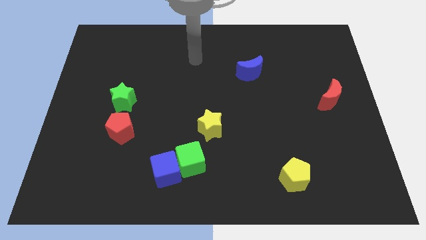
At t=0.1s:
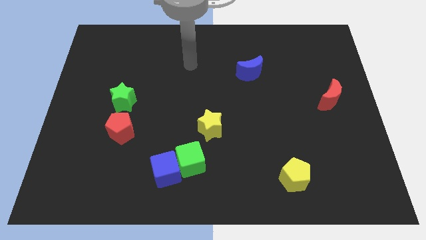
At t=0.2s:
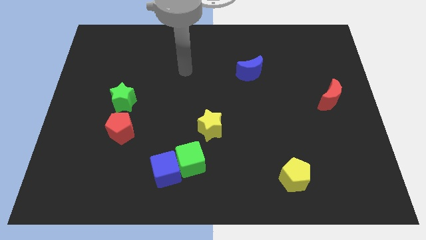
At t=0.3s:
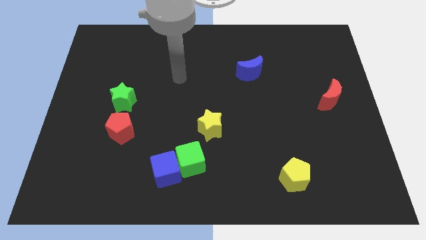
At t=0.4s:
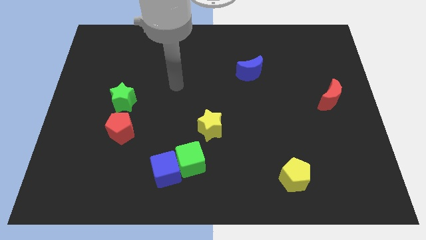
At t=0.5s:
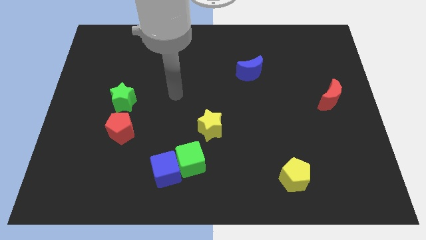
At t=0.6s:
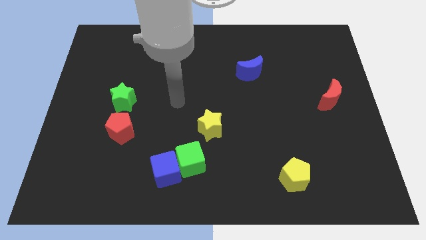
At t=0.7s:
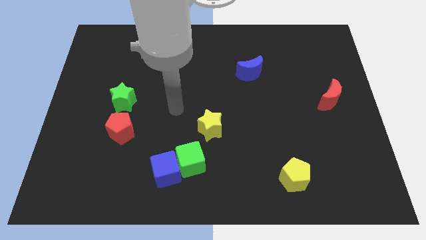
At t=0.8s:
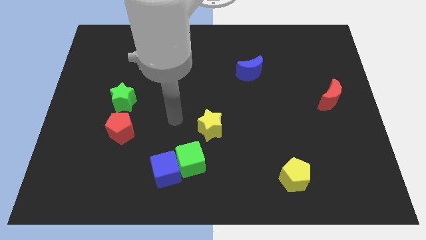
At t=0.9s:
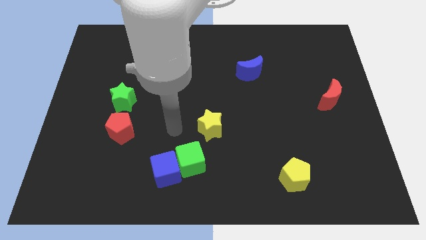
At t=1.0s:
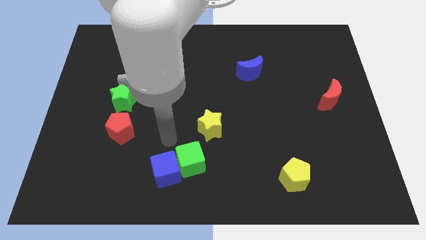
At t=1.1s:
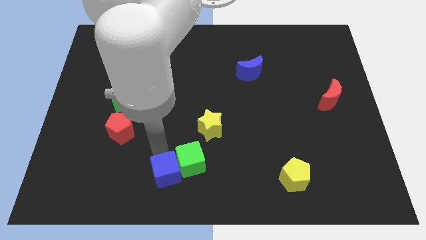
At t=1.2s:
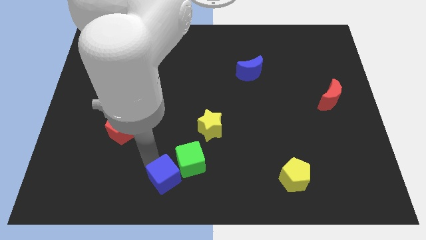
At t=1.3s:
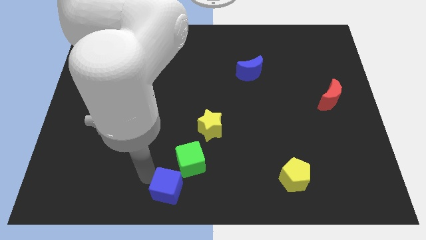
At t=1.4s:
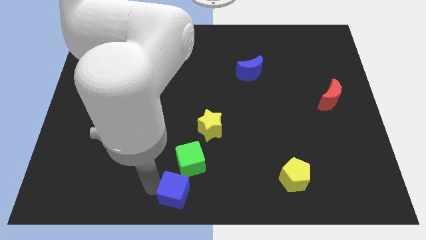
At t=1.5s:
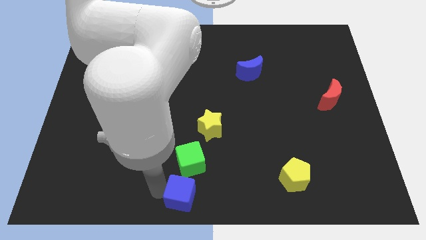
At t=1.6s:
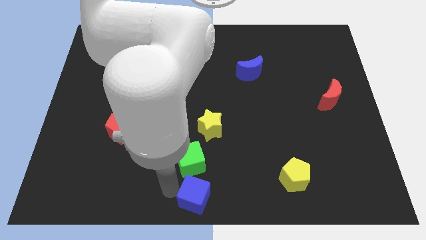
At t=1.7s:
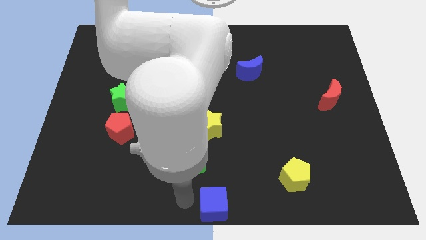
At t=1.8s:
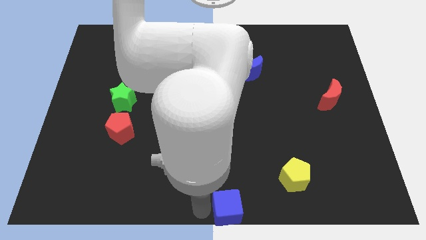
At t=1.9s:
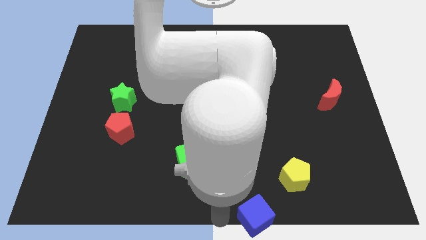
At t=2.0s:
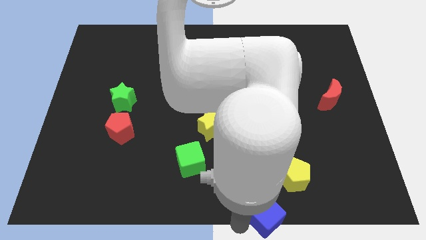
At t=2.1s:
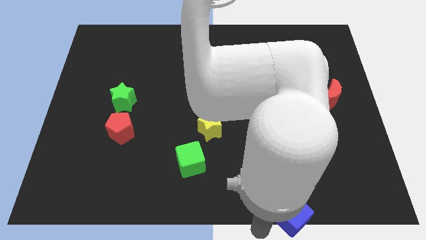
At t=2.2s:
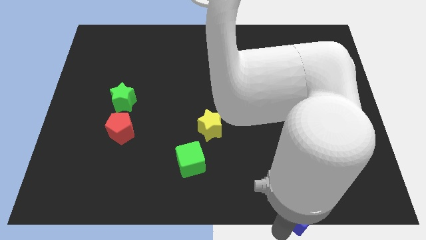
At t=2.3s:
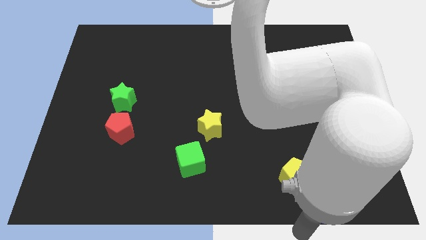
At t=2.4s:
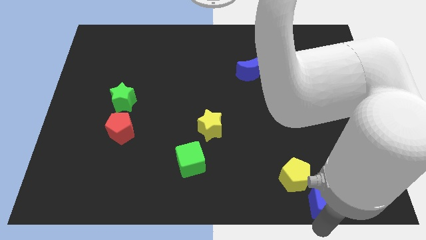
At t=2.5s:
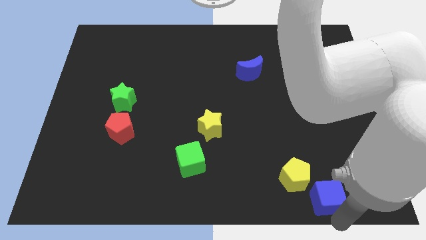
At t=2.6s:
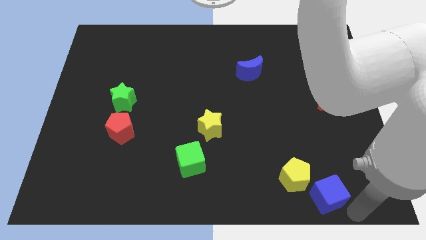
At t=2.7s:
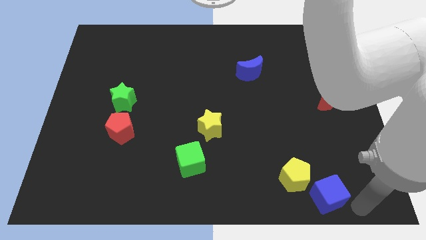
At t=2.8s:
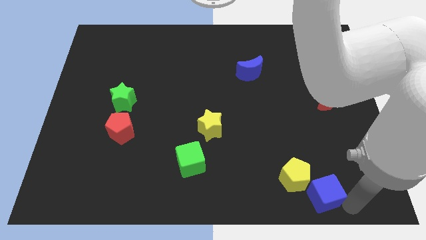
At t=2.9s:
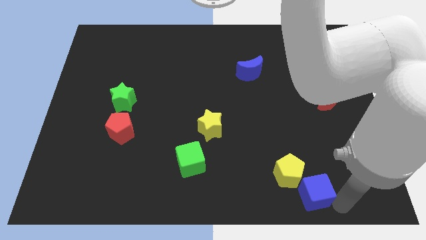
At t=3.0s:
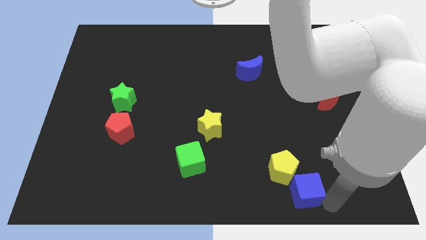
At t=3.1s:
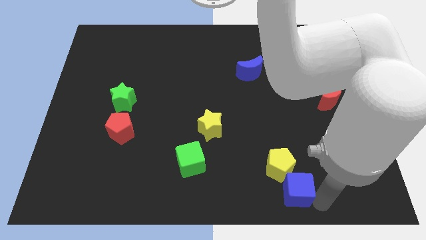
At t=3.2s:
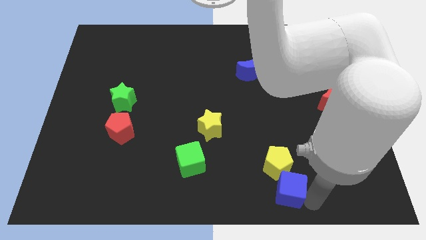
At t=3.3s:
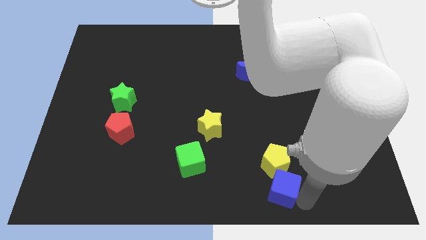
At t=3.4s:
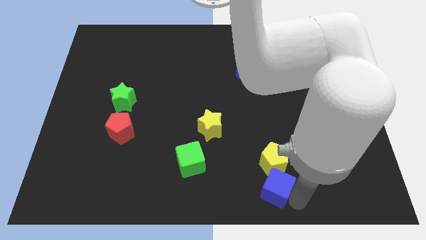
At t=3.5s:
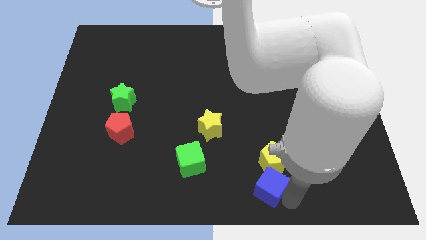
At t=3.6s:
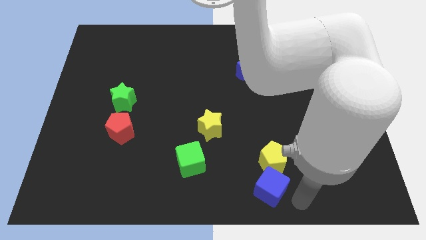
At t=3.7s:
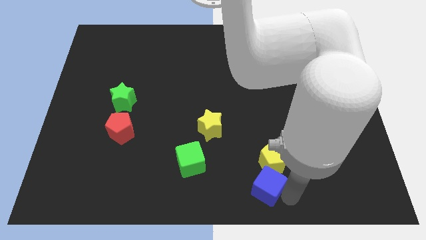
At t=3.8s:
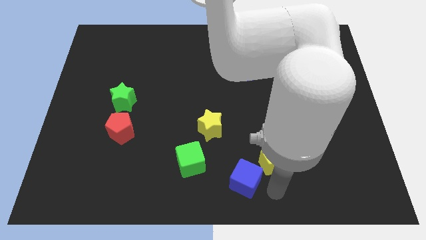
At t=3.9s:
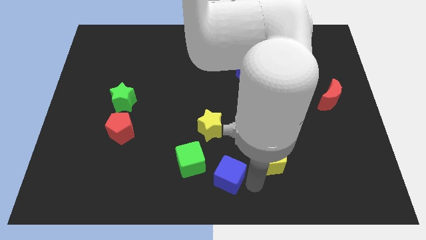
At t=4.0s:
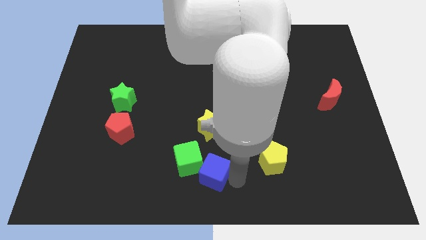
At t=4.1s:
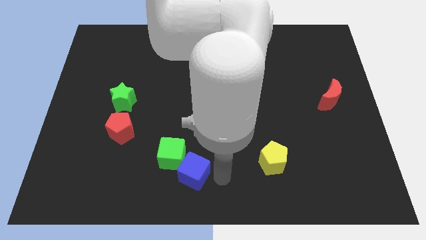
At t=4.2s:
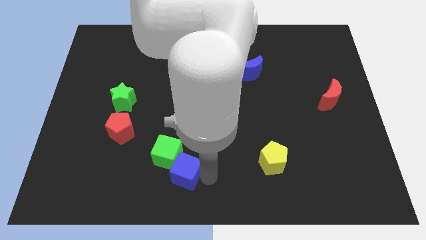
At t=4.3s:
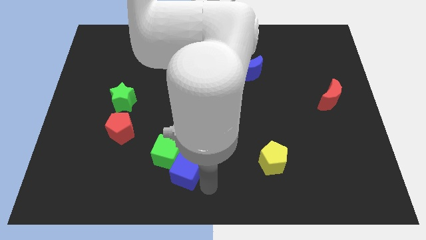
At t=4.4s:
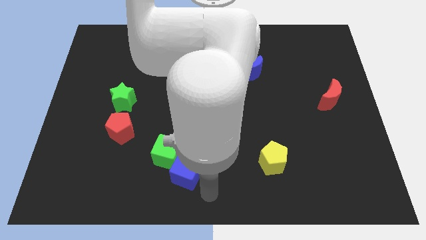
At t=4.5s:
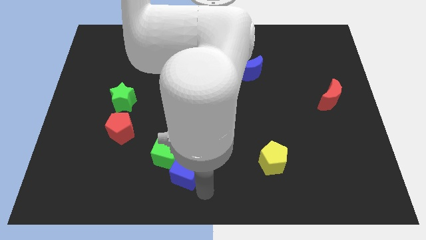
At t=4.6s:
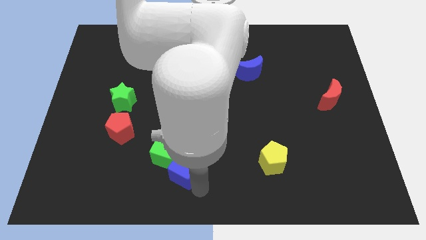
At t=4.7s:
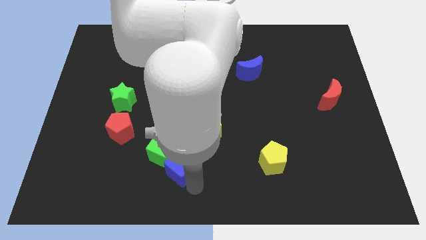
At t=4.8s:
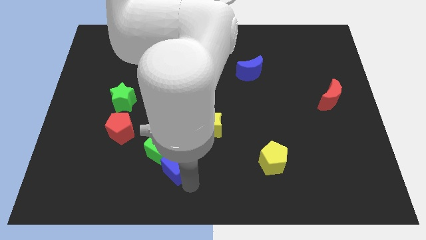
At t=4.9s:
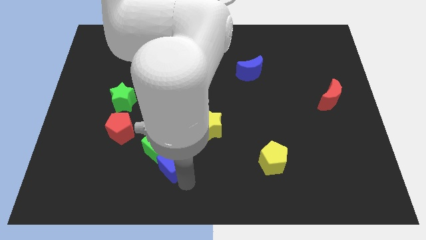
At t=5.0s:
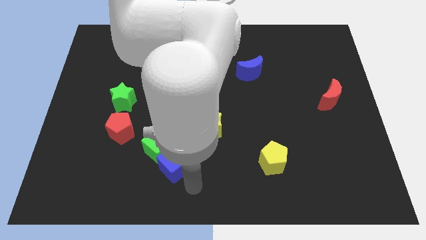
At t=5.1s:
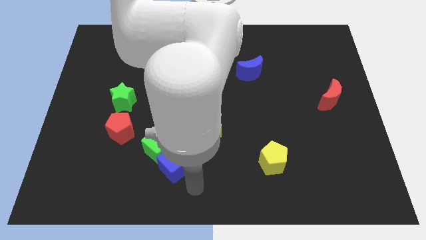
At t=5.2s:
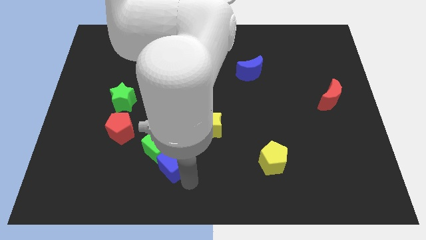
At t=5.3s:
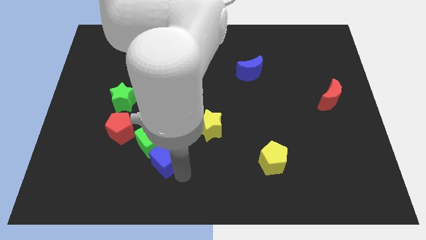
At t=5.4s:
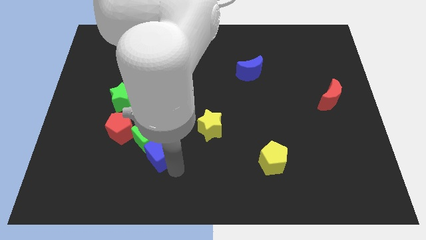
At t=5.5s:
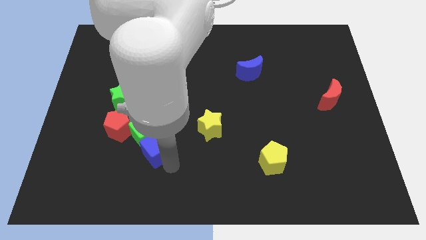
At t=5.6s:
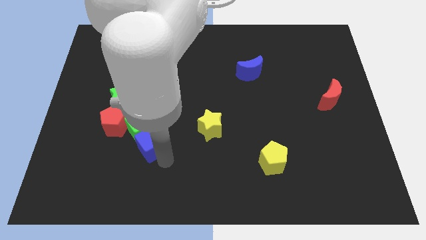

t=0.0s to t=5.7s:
move the blue cube a little diagonally upwards and to the left

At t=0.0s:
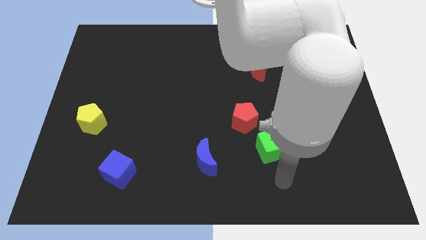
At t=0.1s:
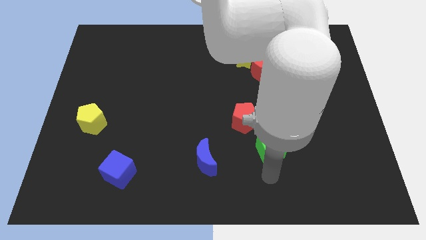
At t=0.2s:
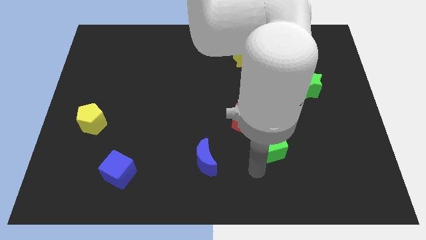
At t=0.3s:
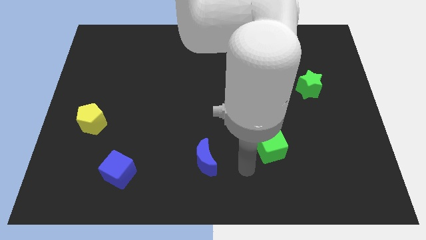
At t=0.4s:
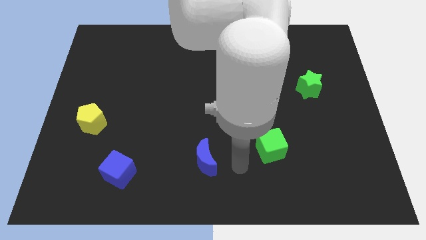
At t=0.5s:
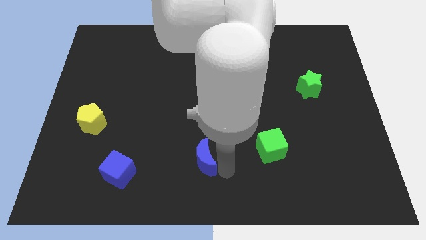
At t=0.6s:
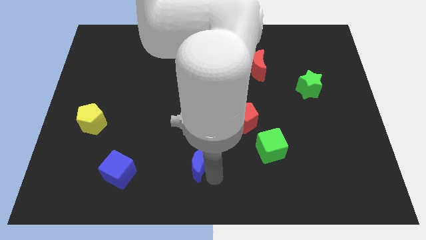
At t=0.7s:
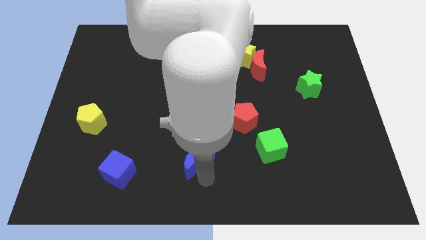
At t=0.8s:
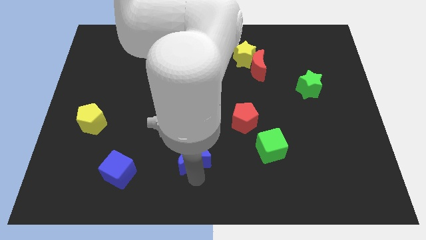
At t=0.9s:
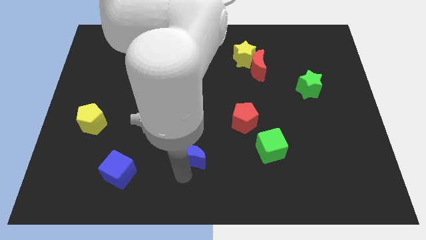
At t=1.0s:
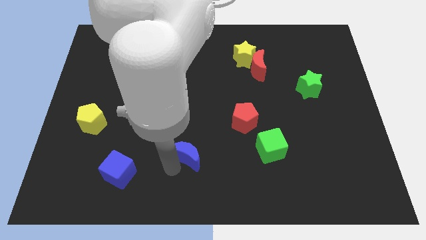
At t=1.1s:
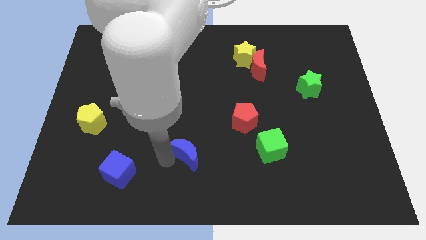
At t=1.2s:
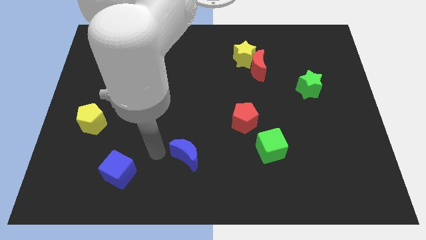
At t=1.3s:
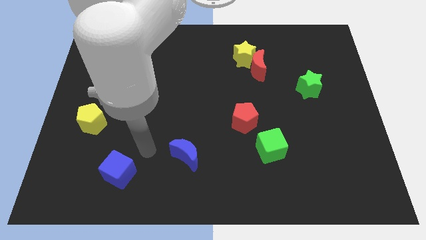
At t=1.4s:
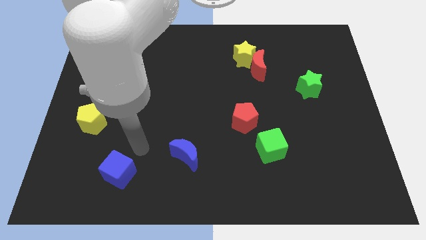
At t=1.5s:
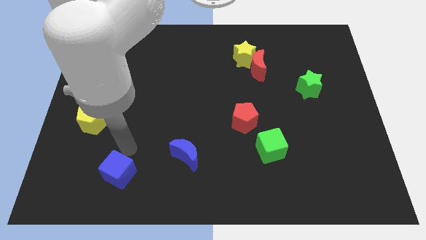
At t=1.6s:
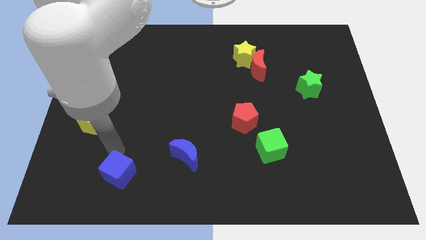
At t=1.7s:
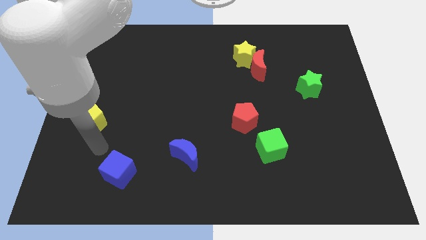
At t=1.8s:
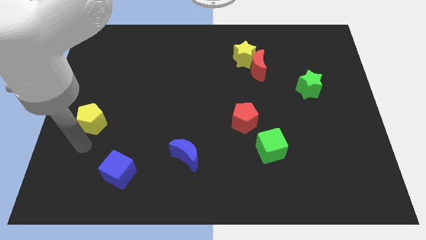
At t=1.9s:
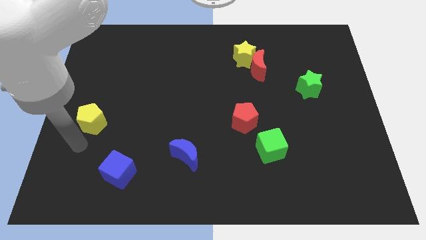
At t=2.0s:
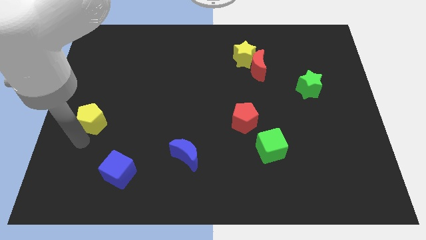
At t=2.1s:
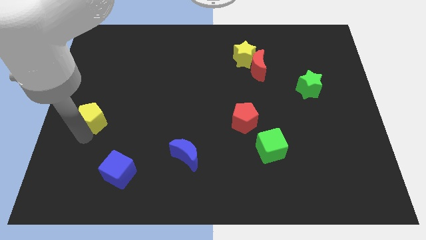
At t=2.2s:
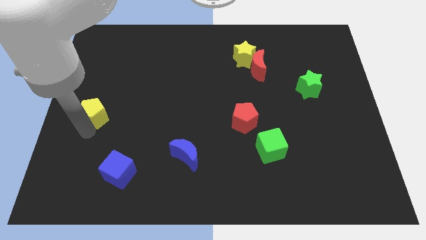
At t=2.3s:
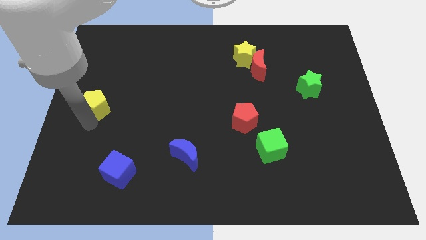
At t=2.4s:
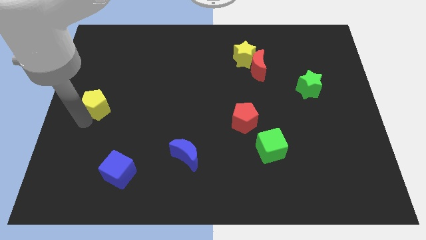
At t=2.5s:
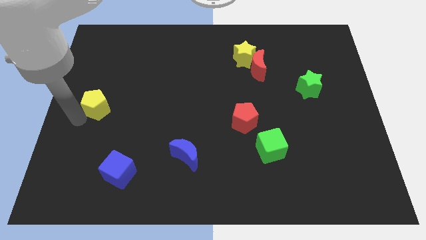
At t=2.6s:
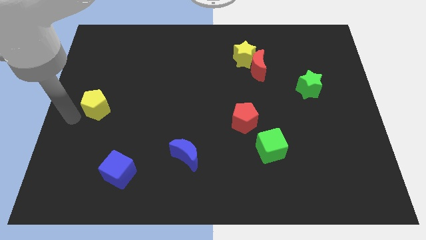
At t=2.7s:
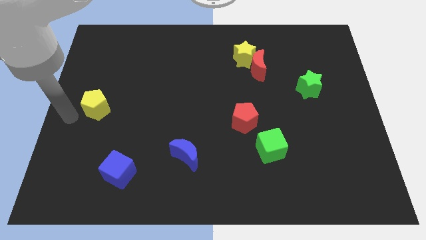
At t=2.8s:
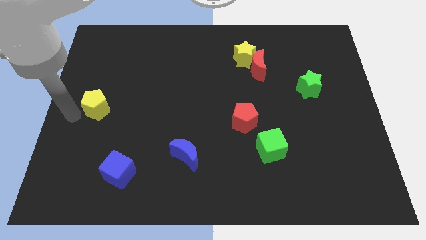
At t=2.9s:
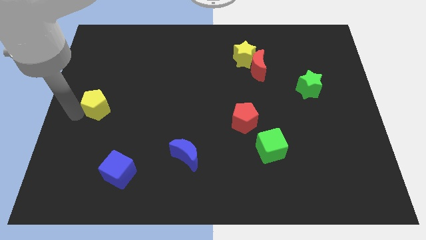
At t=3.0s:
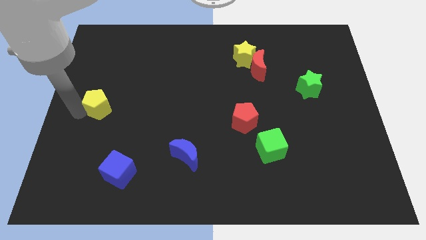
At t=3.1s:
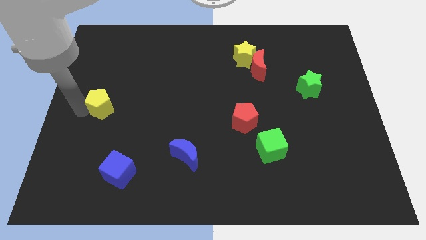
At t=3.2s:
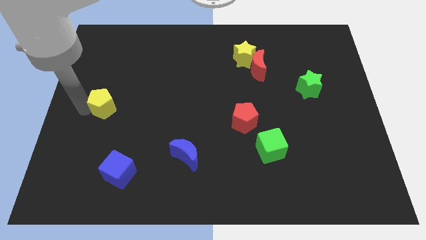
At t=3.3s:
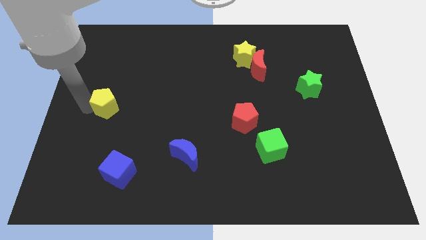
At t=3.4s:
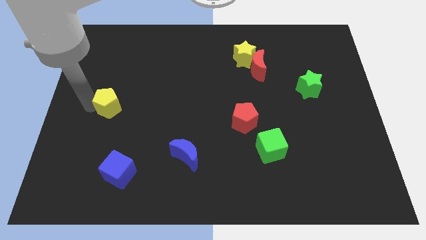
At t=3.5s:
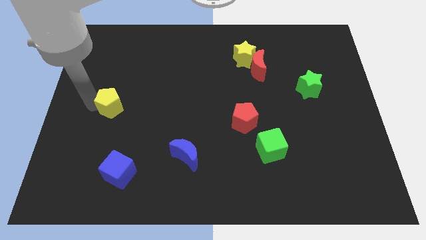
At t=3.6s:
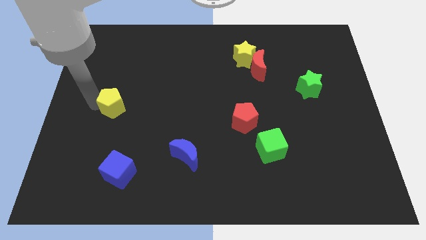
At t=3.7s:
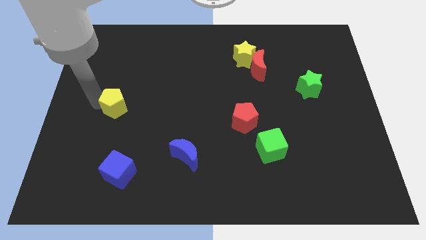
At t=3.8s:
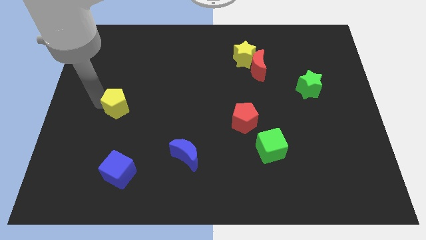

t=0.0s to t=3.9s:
slightly slide the yellow pentagon upwards and to the right diagonally
